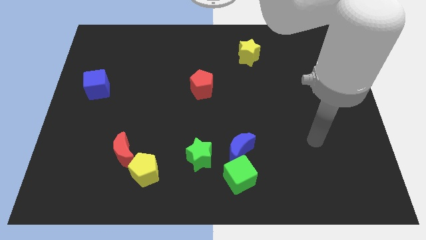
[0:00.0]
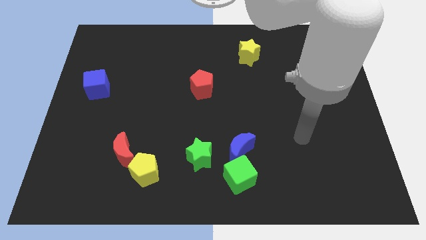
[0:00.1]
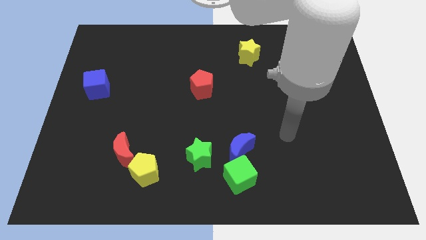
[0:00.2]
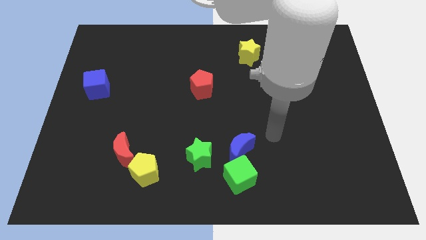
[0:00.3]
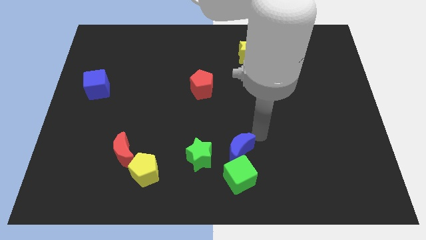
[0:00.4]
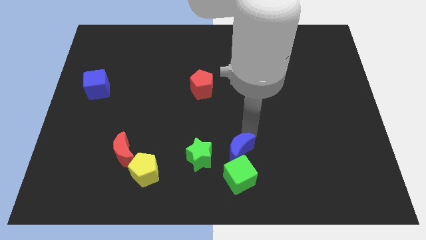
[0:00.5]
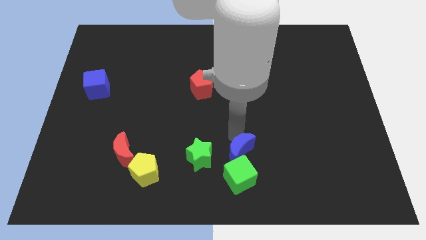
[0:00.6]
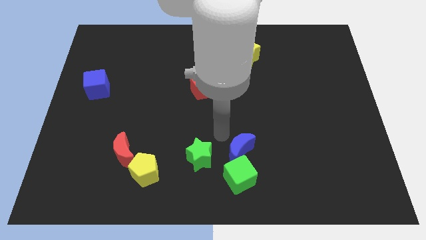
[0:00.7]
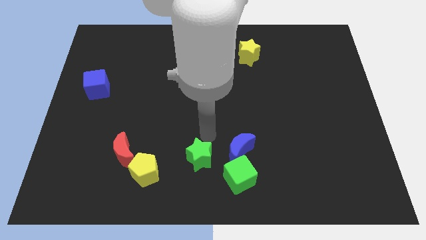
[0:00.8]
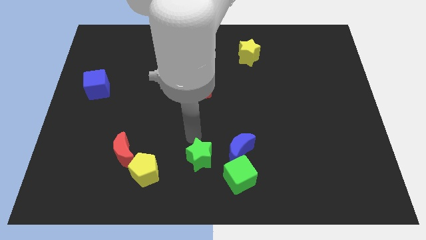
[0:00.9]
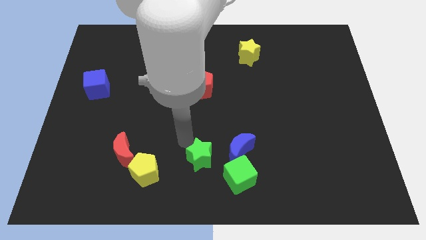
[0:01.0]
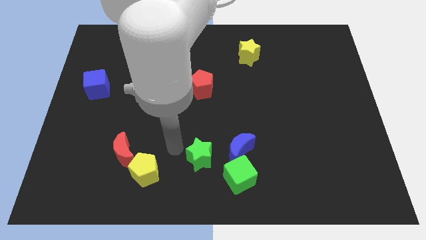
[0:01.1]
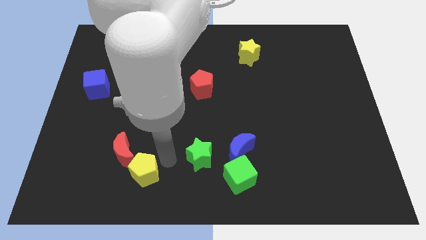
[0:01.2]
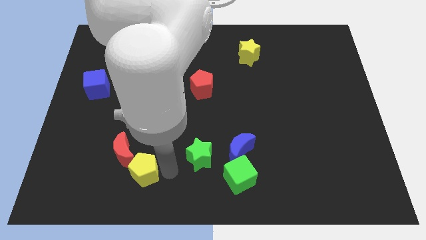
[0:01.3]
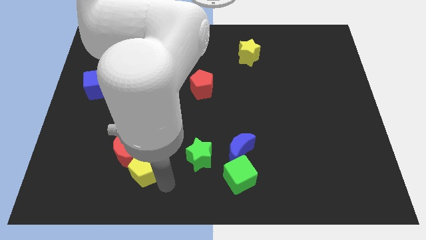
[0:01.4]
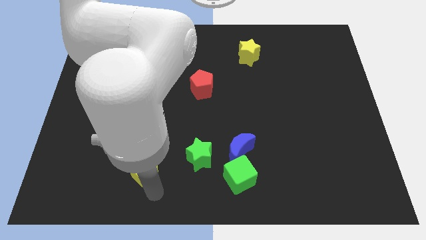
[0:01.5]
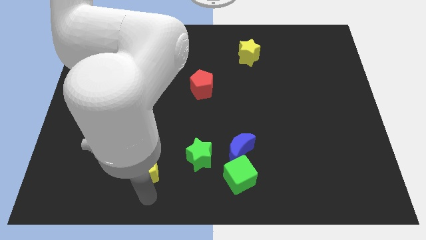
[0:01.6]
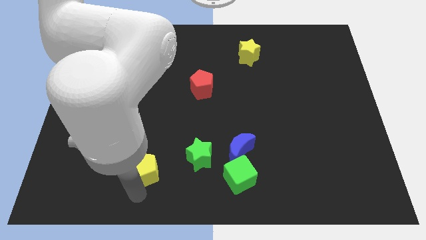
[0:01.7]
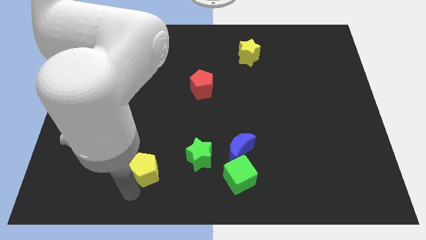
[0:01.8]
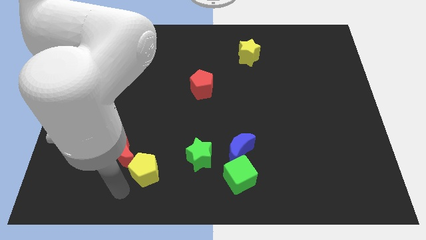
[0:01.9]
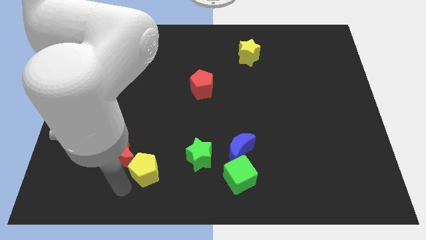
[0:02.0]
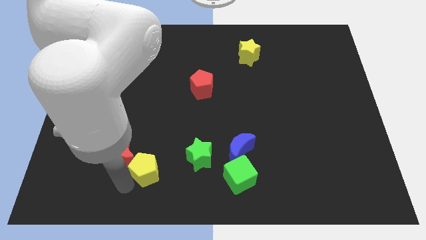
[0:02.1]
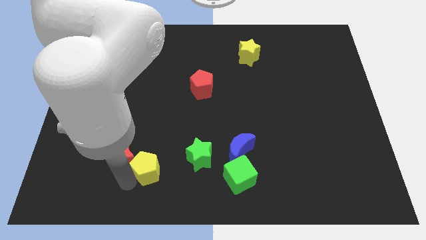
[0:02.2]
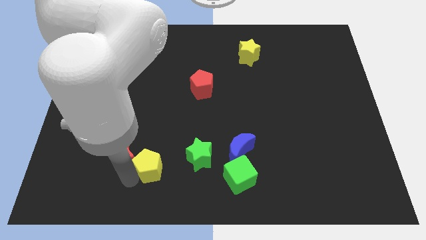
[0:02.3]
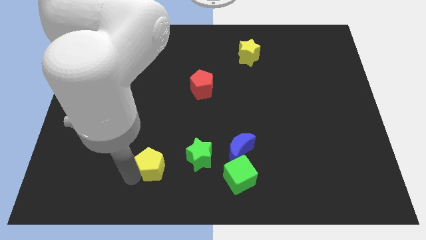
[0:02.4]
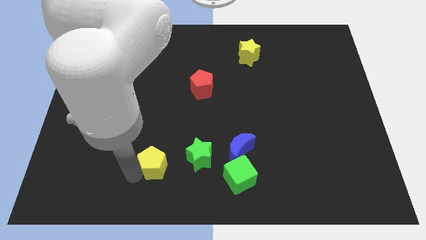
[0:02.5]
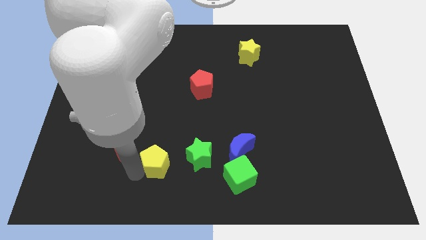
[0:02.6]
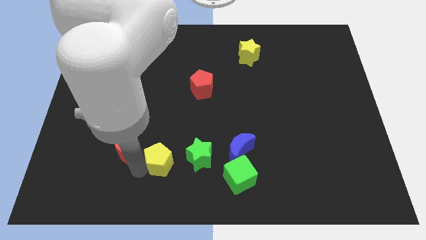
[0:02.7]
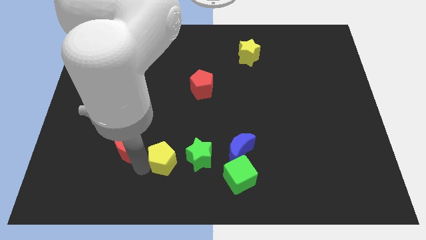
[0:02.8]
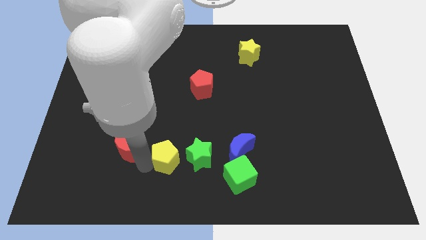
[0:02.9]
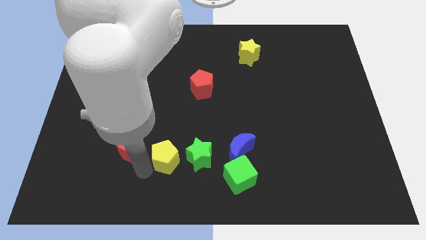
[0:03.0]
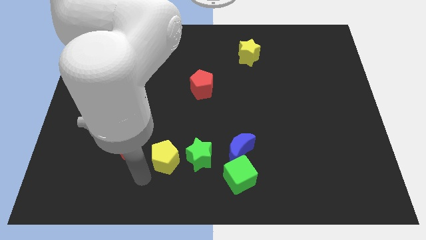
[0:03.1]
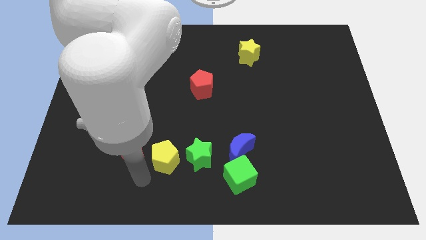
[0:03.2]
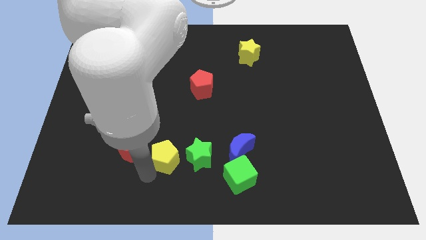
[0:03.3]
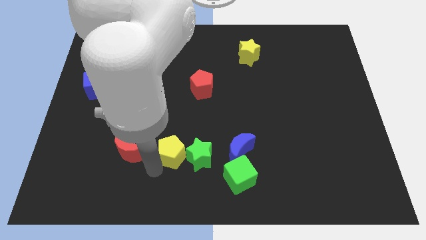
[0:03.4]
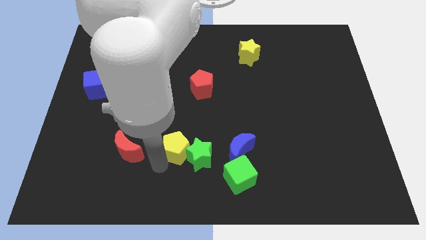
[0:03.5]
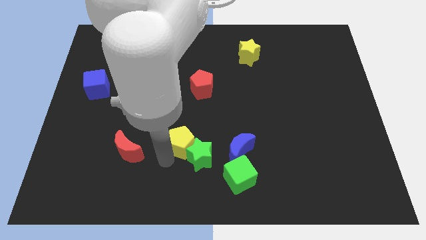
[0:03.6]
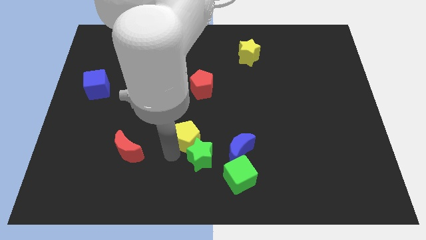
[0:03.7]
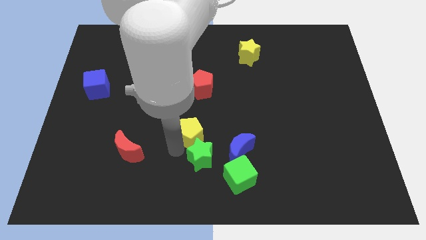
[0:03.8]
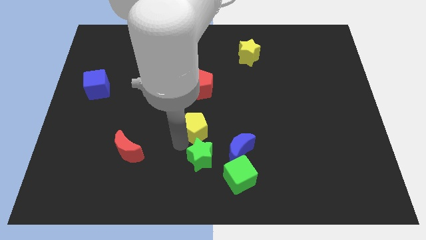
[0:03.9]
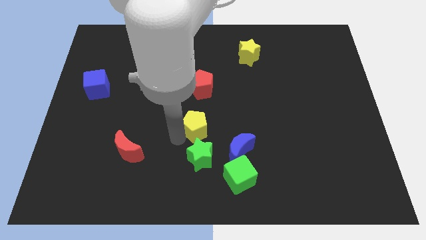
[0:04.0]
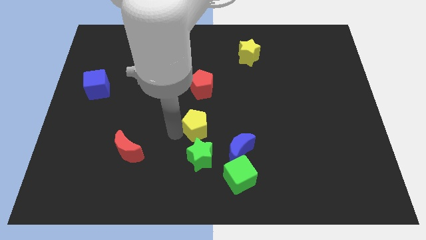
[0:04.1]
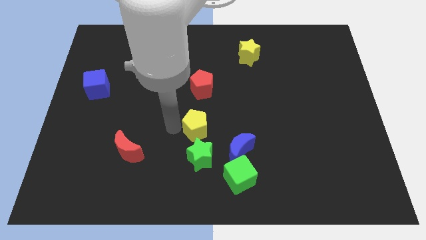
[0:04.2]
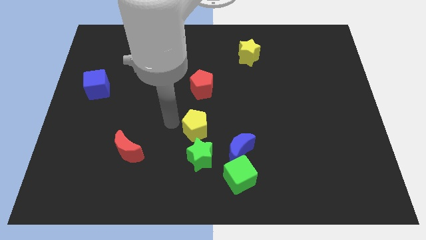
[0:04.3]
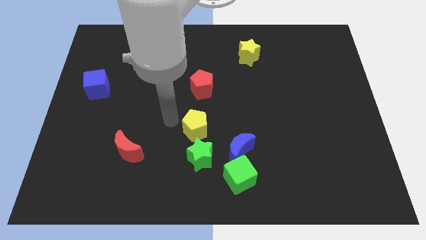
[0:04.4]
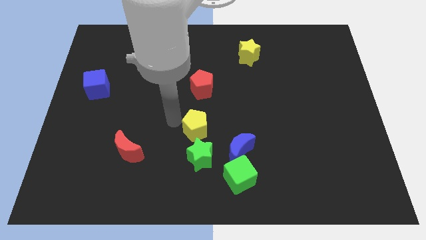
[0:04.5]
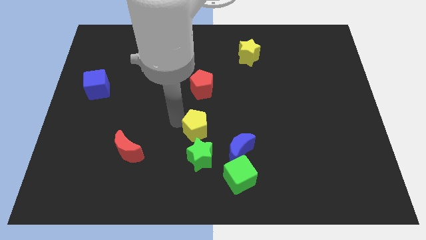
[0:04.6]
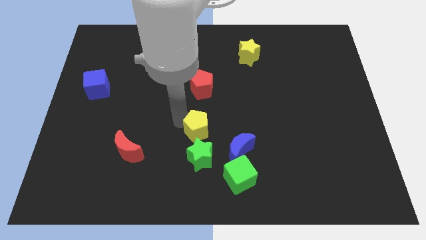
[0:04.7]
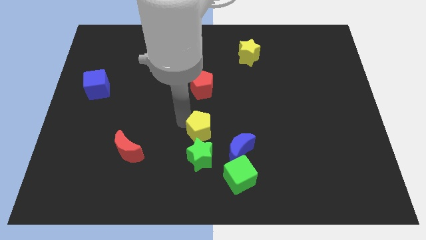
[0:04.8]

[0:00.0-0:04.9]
push the yellow pentagon diagonally up and to the right of the green star

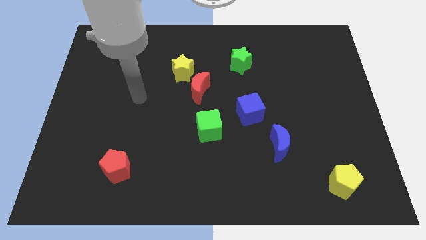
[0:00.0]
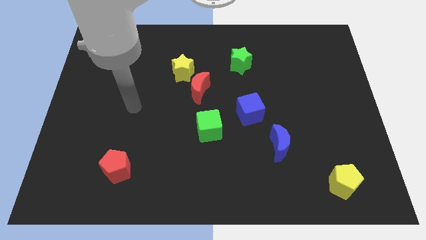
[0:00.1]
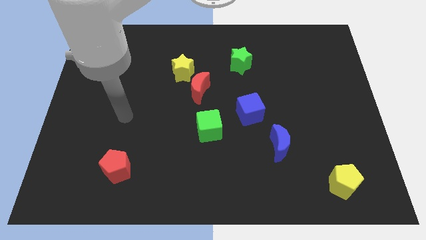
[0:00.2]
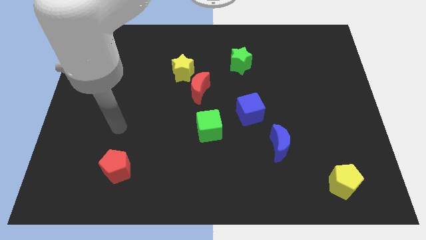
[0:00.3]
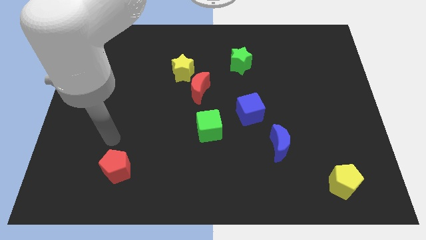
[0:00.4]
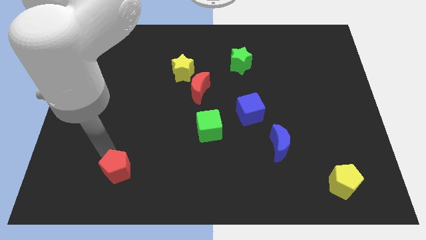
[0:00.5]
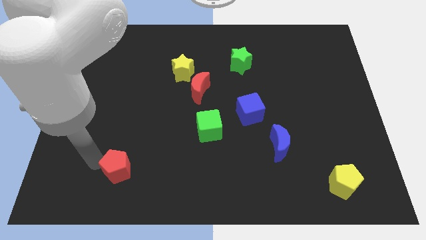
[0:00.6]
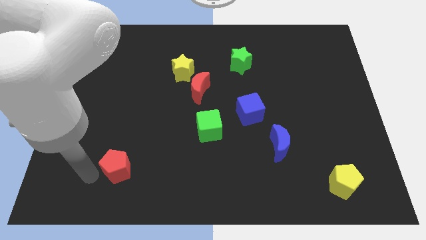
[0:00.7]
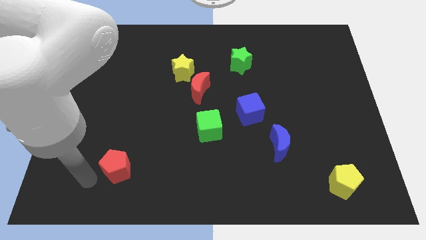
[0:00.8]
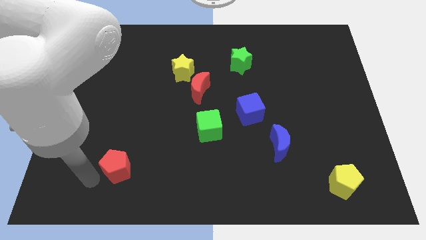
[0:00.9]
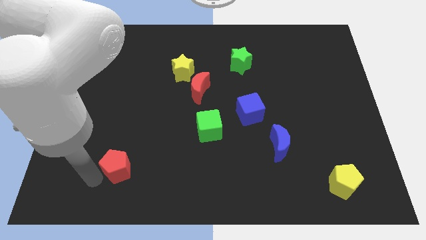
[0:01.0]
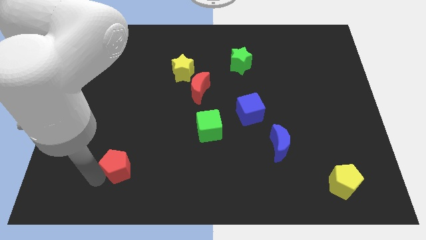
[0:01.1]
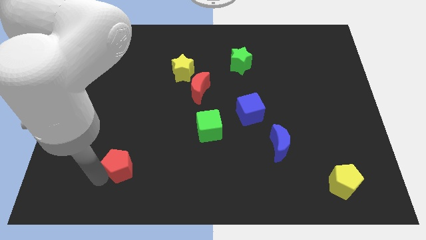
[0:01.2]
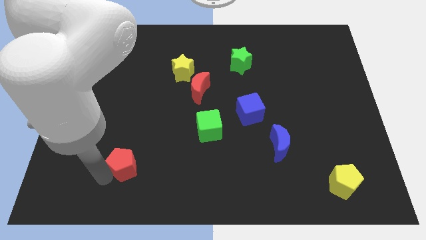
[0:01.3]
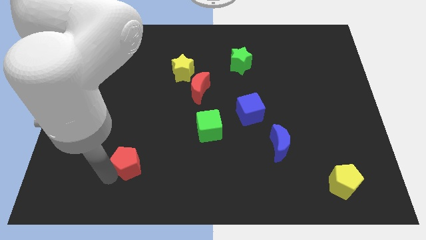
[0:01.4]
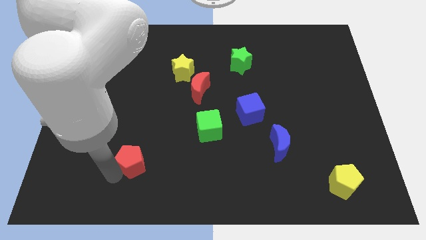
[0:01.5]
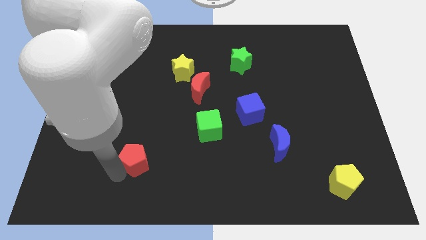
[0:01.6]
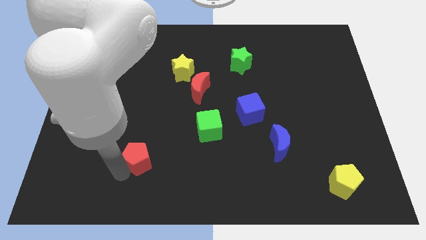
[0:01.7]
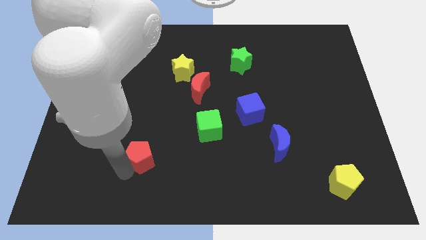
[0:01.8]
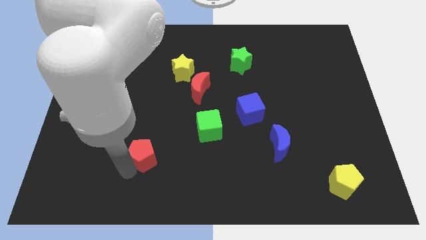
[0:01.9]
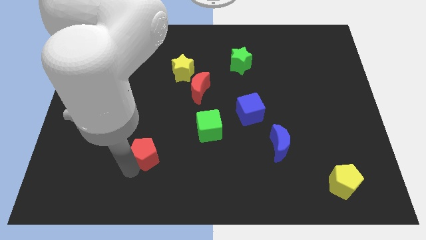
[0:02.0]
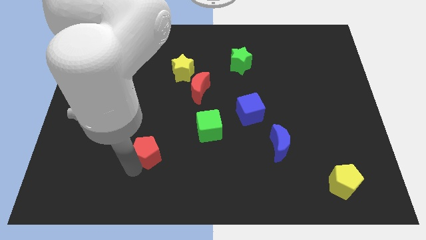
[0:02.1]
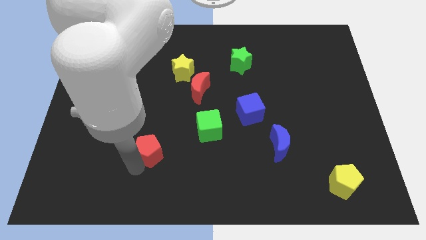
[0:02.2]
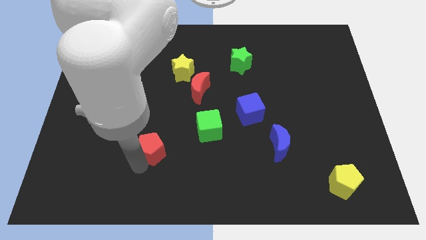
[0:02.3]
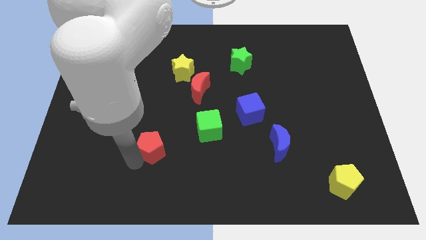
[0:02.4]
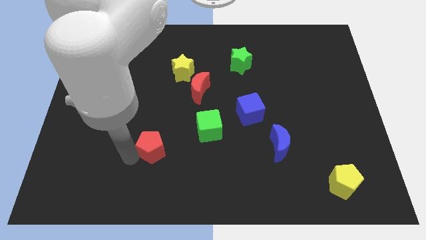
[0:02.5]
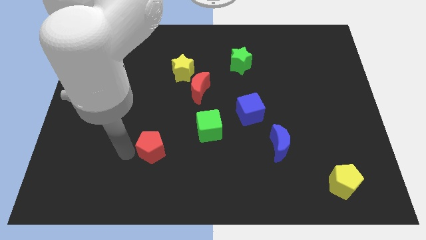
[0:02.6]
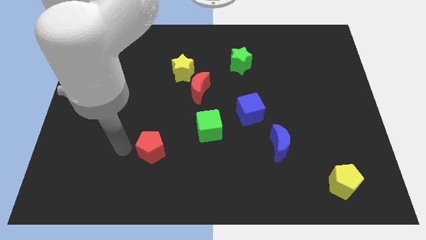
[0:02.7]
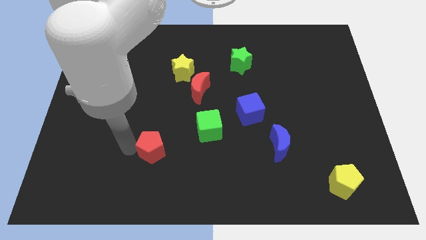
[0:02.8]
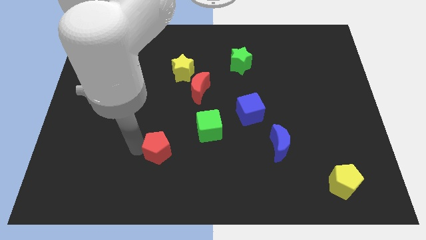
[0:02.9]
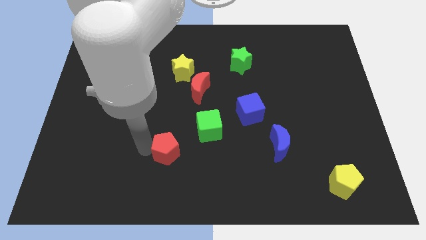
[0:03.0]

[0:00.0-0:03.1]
put the red pentagon diagonally down and to the left of the green cube
